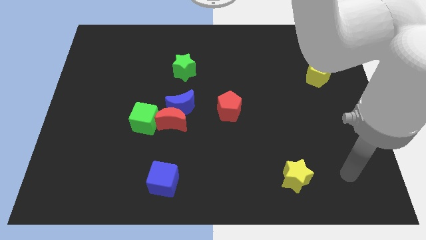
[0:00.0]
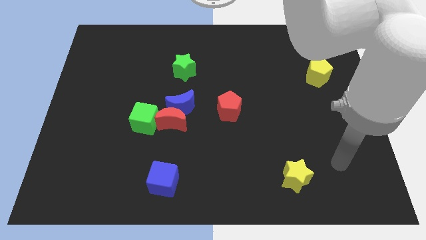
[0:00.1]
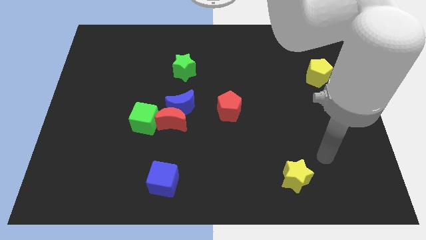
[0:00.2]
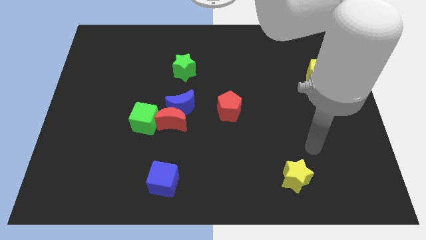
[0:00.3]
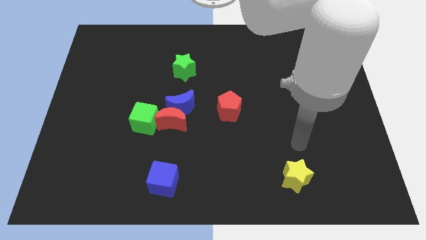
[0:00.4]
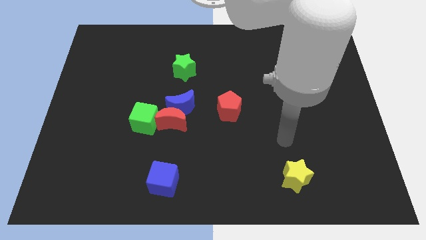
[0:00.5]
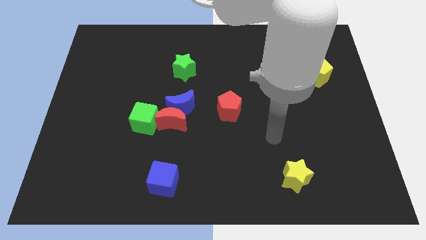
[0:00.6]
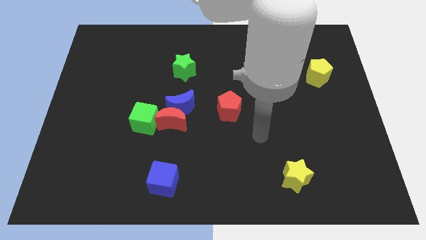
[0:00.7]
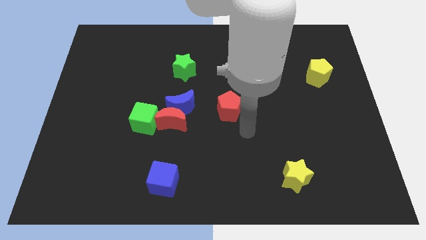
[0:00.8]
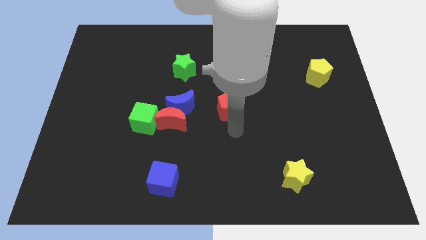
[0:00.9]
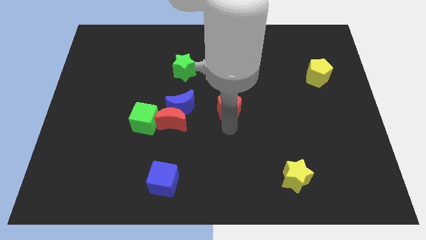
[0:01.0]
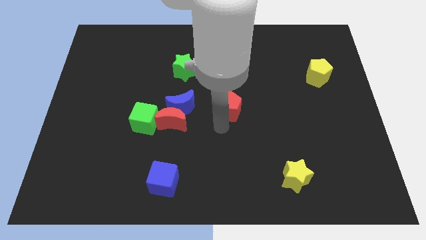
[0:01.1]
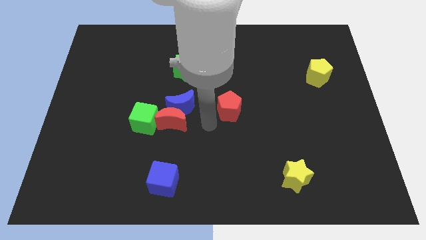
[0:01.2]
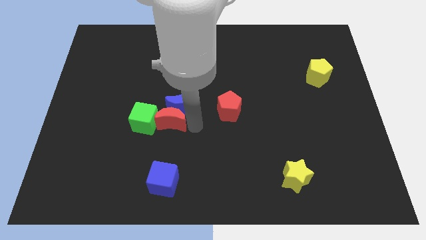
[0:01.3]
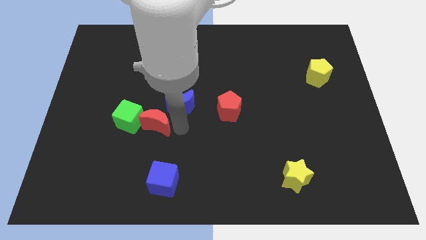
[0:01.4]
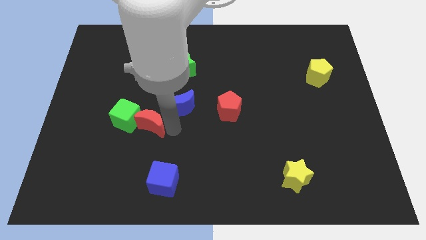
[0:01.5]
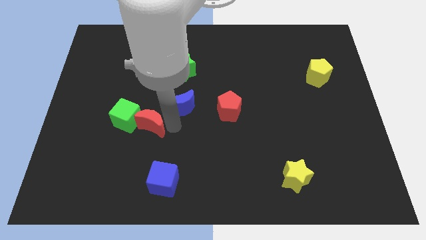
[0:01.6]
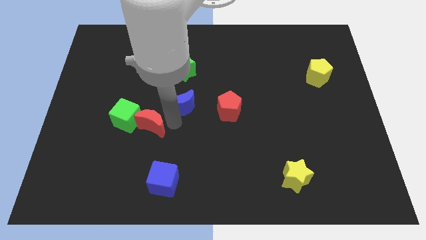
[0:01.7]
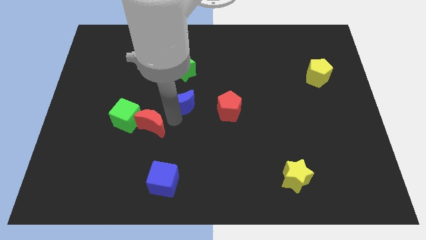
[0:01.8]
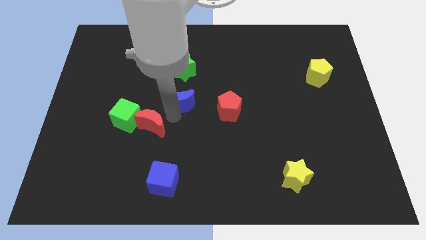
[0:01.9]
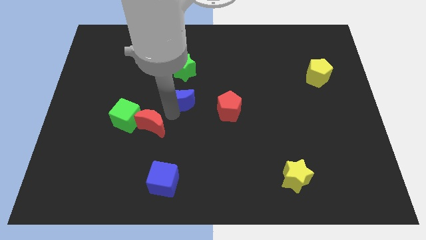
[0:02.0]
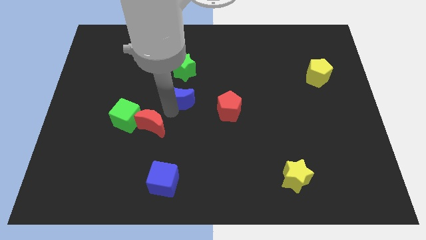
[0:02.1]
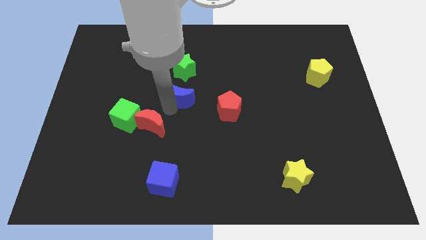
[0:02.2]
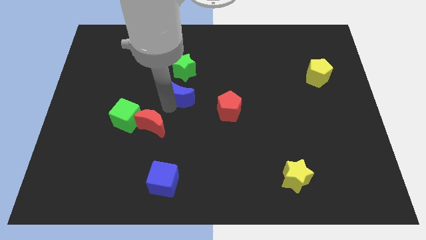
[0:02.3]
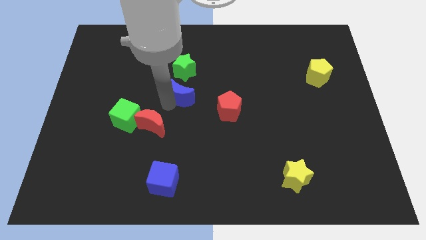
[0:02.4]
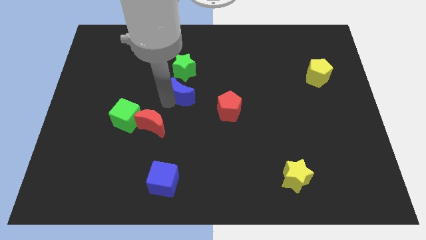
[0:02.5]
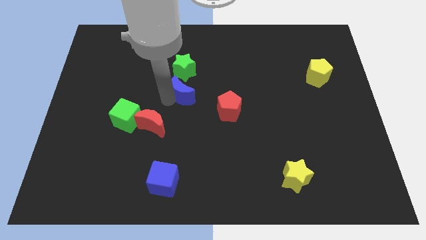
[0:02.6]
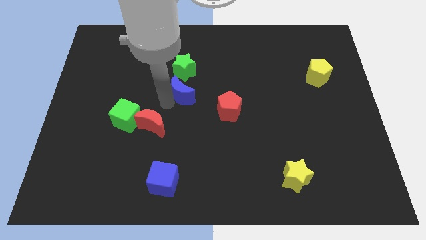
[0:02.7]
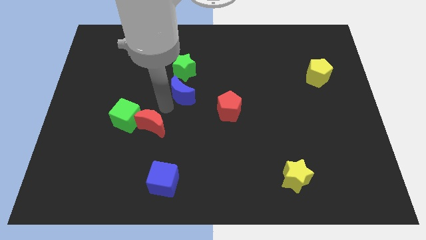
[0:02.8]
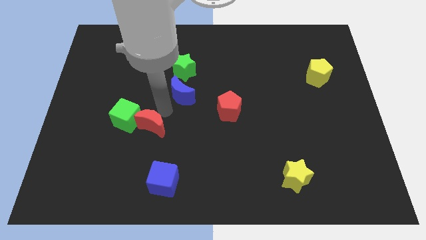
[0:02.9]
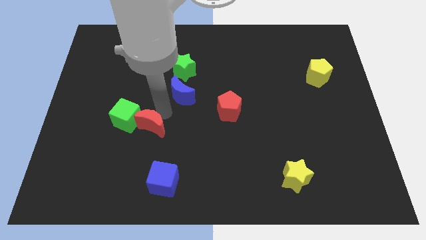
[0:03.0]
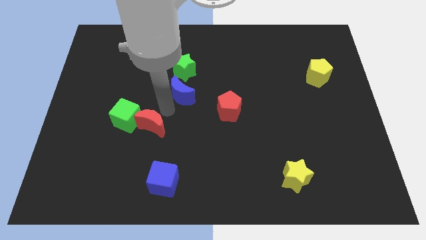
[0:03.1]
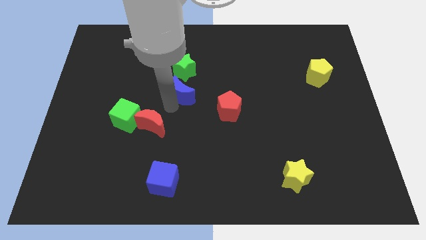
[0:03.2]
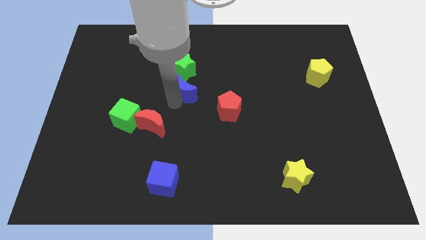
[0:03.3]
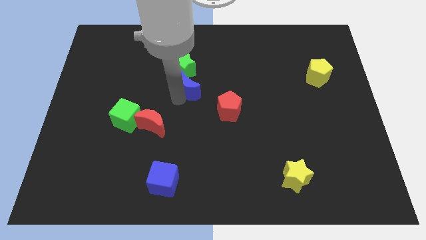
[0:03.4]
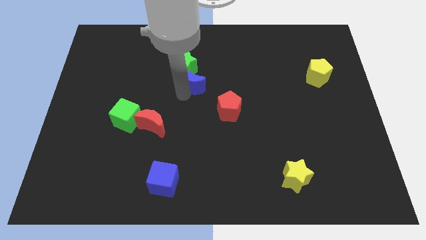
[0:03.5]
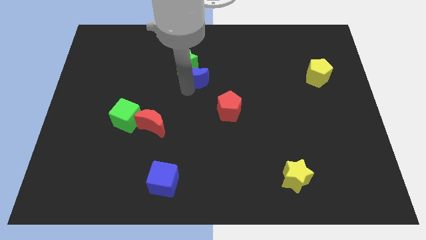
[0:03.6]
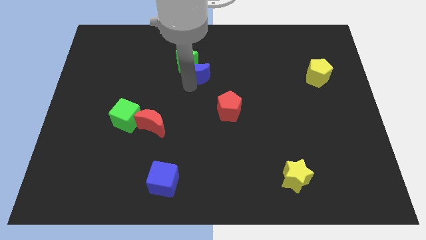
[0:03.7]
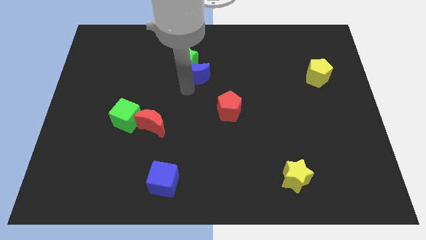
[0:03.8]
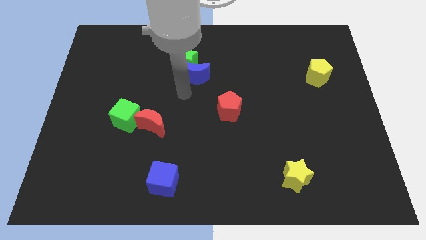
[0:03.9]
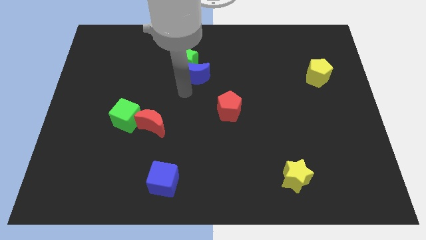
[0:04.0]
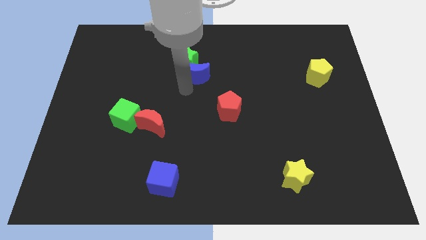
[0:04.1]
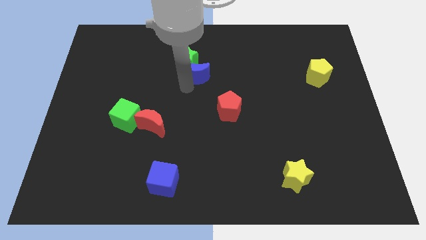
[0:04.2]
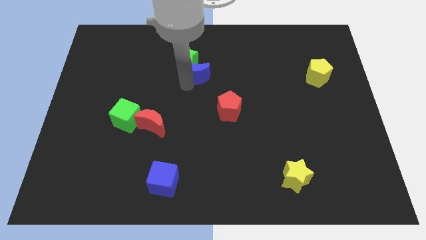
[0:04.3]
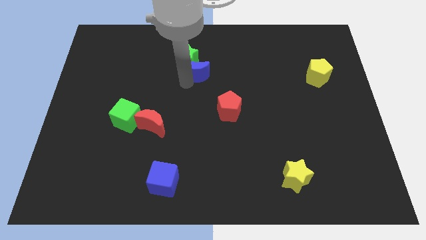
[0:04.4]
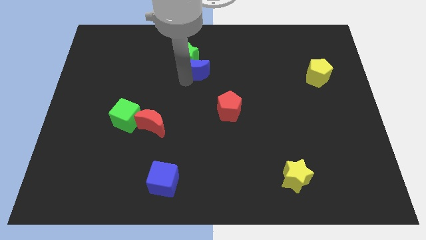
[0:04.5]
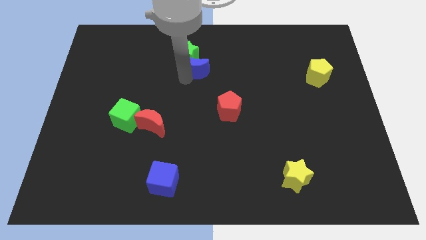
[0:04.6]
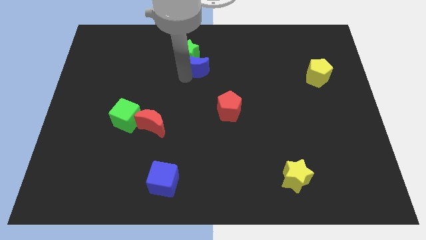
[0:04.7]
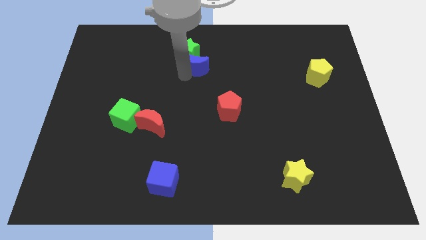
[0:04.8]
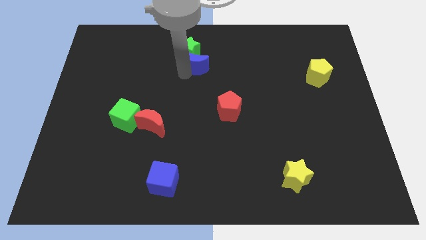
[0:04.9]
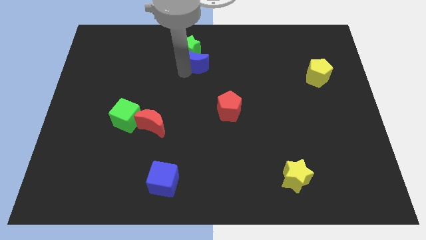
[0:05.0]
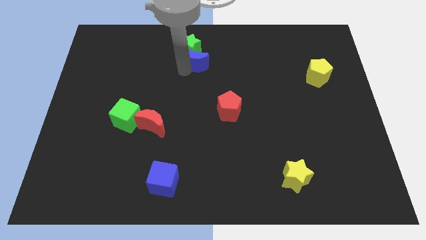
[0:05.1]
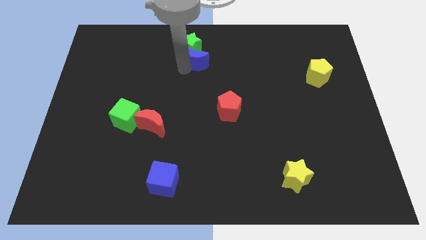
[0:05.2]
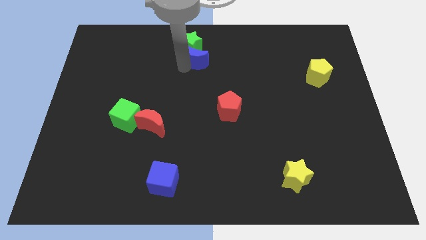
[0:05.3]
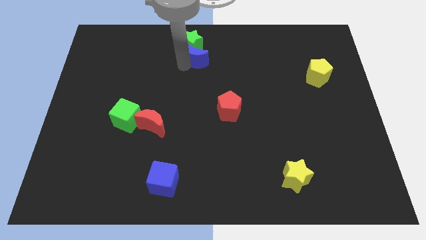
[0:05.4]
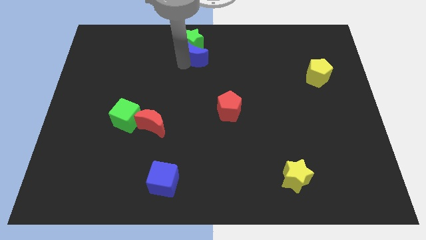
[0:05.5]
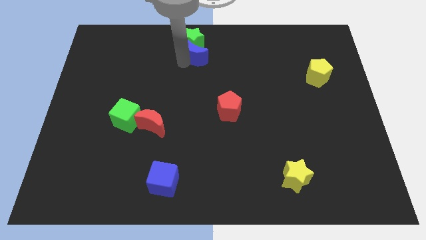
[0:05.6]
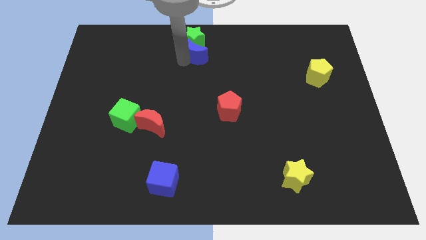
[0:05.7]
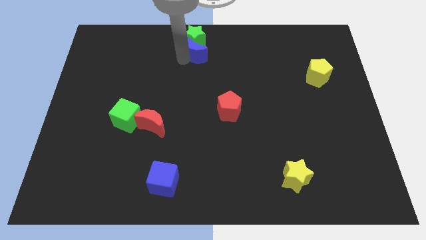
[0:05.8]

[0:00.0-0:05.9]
push the blue moon to the top

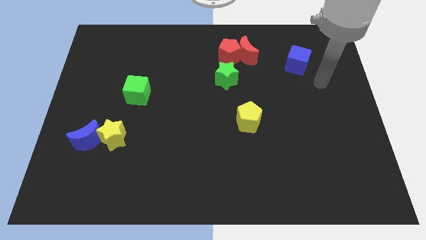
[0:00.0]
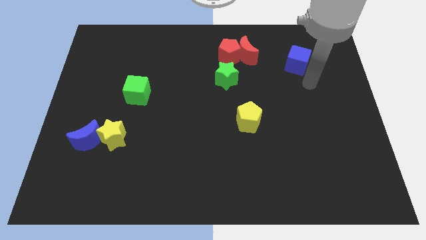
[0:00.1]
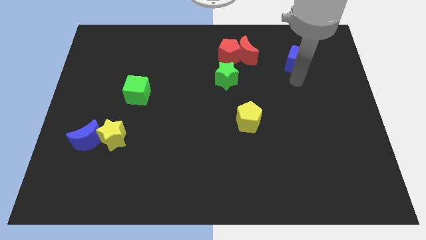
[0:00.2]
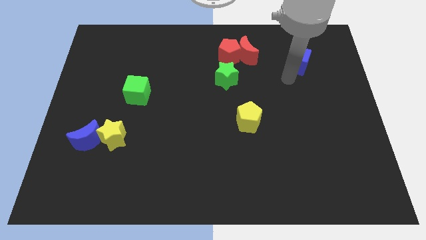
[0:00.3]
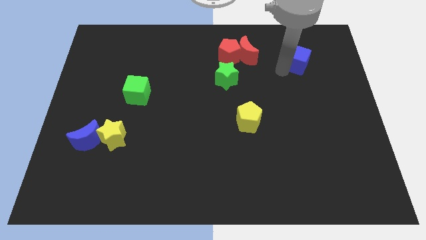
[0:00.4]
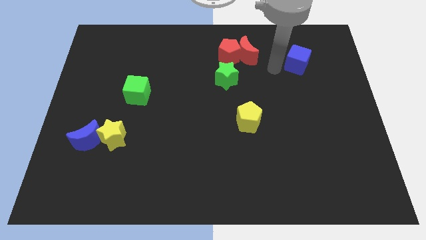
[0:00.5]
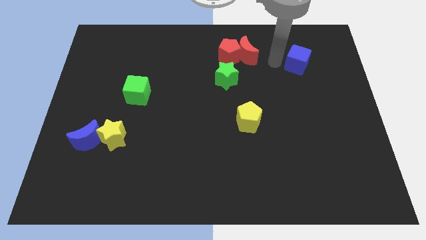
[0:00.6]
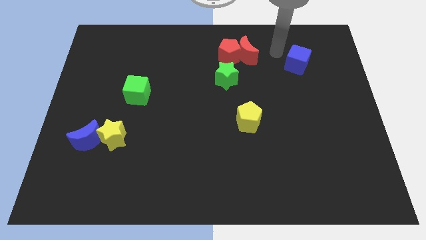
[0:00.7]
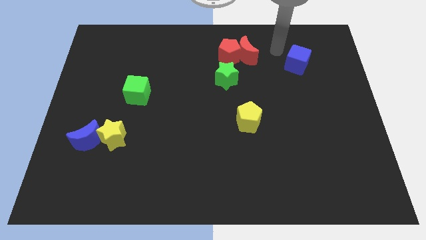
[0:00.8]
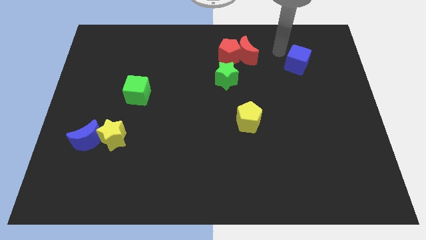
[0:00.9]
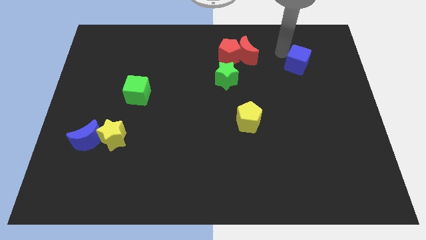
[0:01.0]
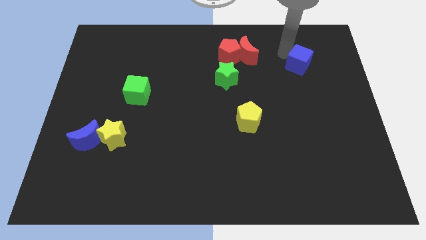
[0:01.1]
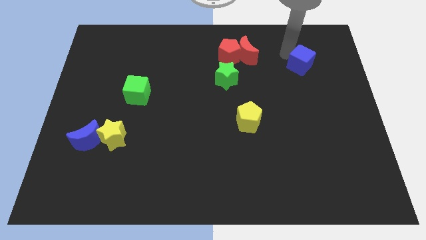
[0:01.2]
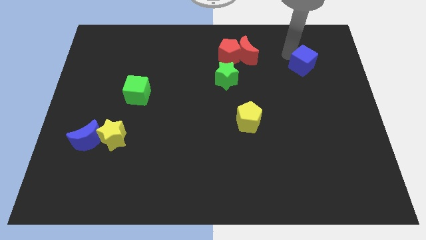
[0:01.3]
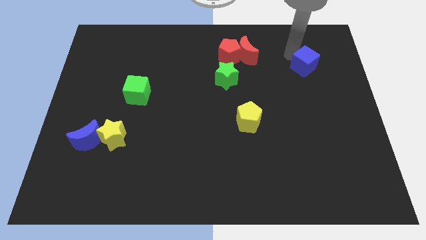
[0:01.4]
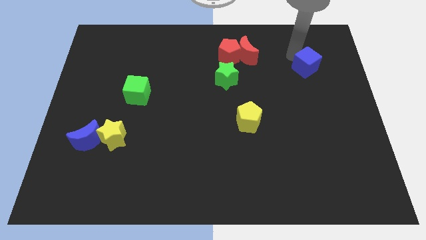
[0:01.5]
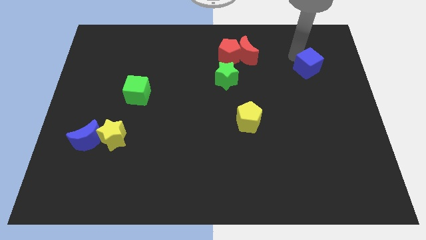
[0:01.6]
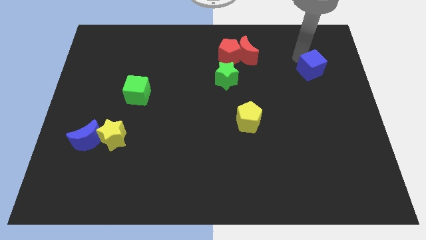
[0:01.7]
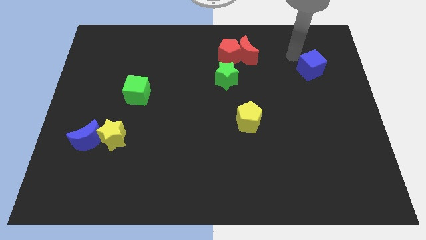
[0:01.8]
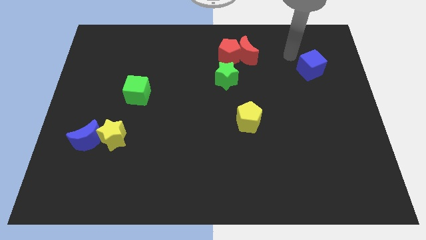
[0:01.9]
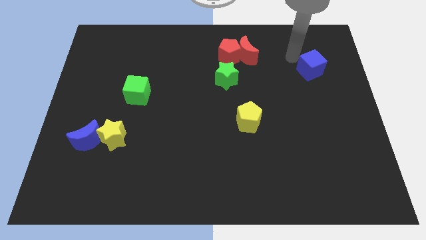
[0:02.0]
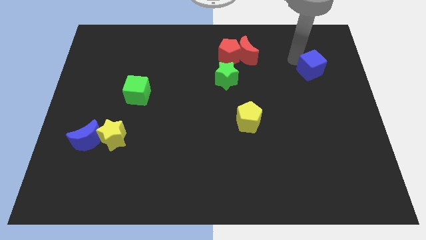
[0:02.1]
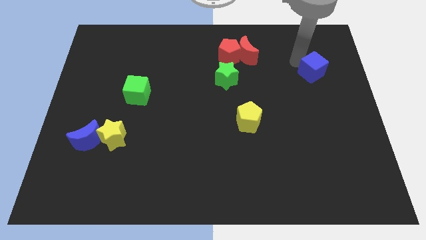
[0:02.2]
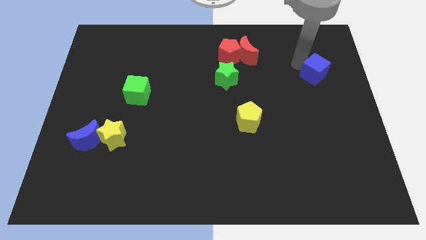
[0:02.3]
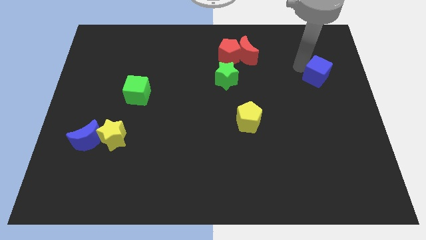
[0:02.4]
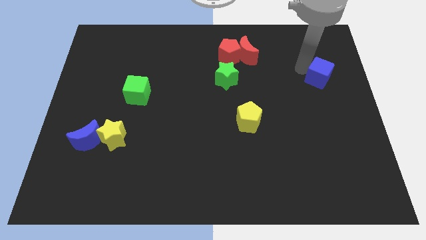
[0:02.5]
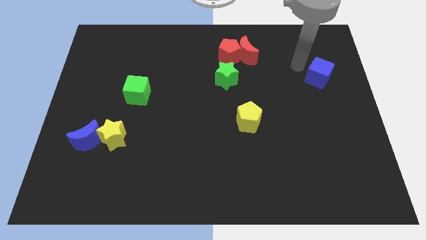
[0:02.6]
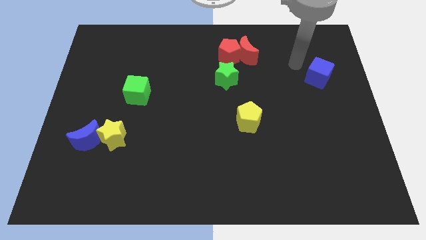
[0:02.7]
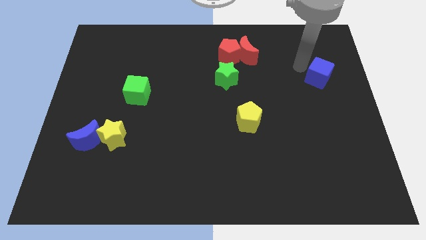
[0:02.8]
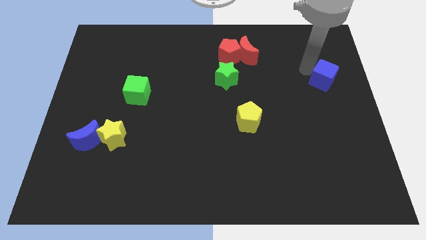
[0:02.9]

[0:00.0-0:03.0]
slide the blue cube to the right side of the board
